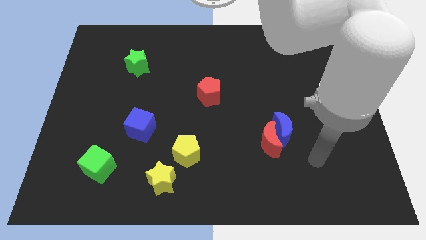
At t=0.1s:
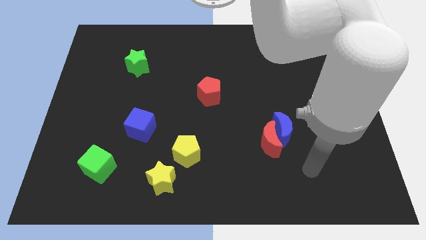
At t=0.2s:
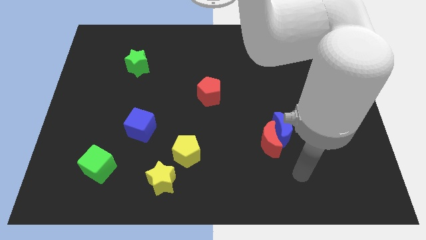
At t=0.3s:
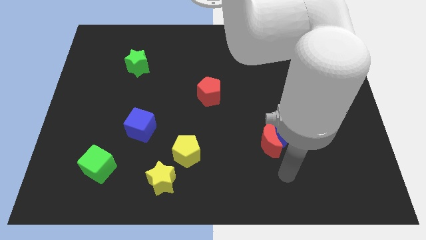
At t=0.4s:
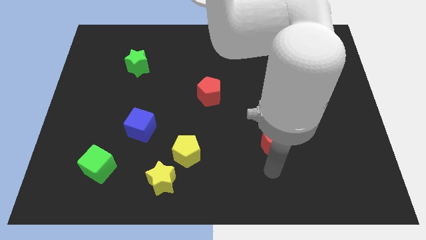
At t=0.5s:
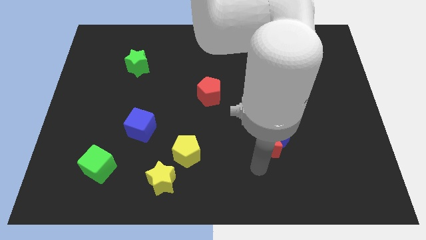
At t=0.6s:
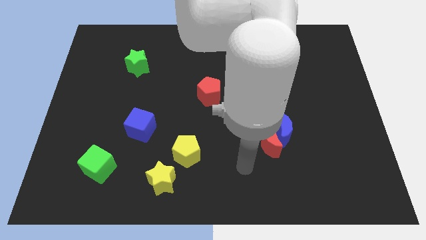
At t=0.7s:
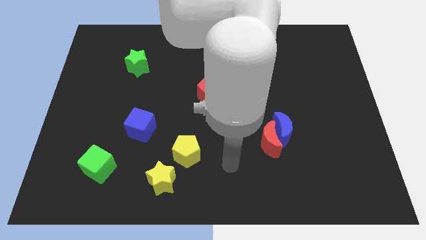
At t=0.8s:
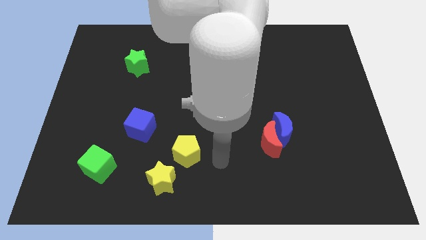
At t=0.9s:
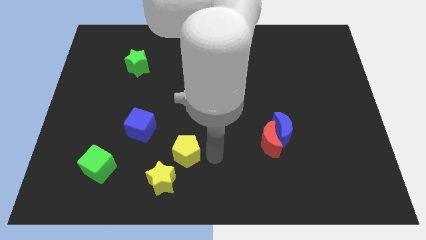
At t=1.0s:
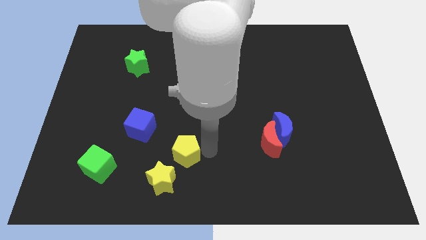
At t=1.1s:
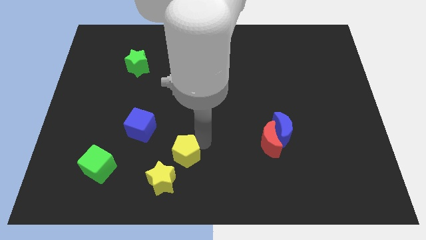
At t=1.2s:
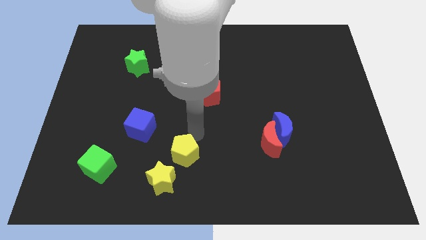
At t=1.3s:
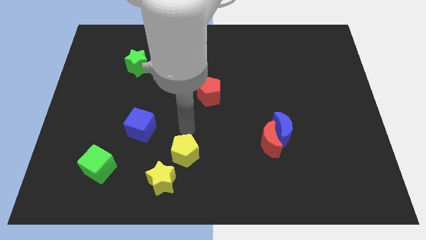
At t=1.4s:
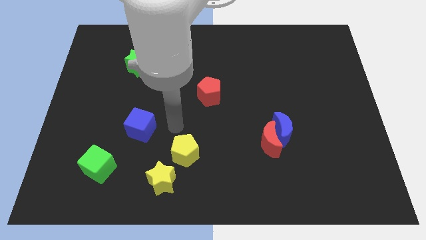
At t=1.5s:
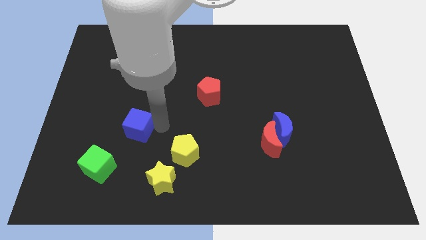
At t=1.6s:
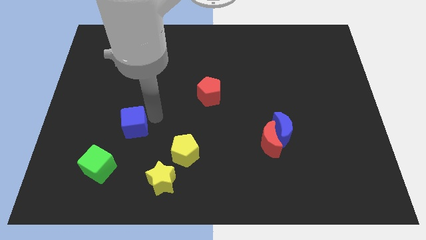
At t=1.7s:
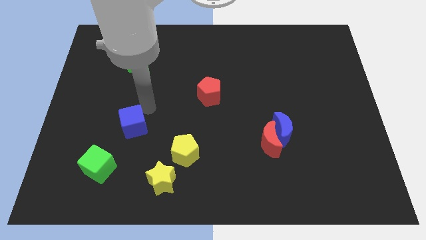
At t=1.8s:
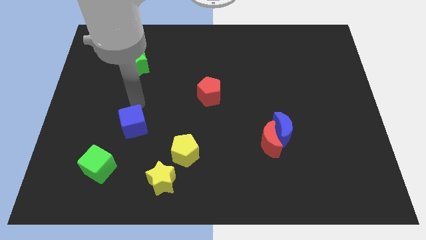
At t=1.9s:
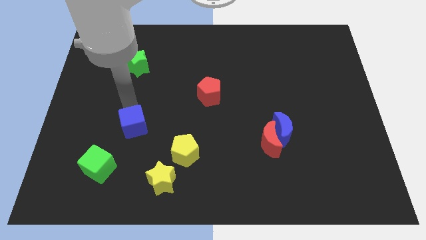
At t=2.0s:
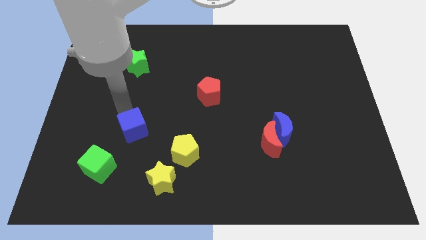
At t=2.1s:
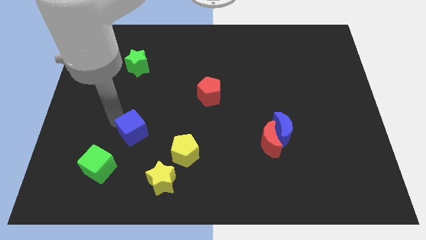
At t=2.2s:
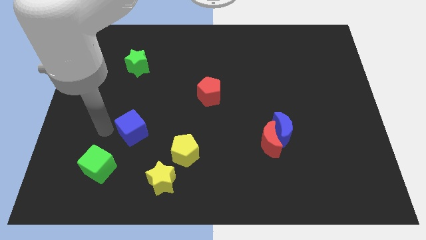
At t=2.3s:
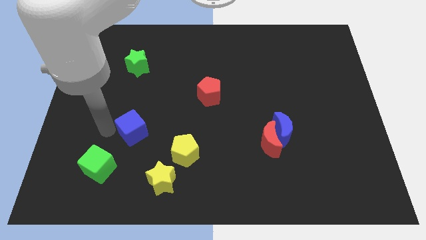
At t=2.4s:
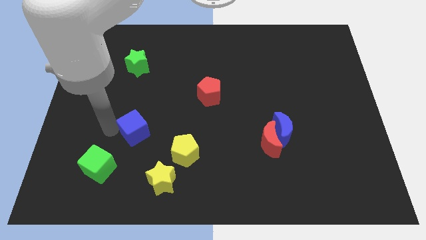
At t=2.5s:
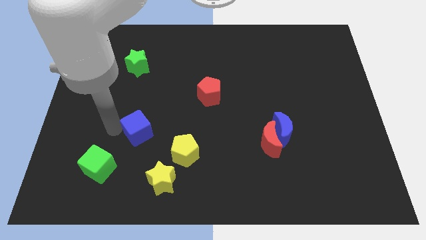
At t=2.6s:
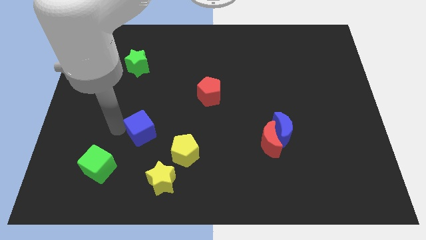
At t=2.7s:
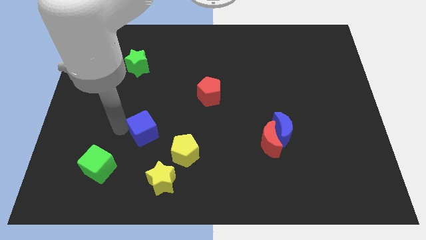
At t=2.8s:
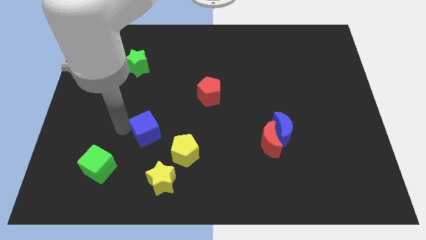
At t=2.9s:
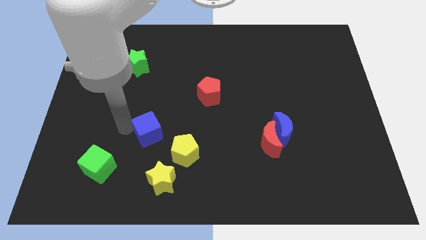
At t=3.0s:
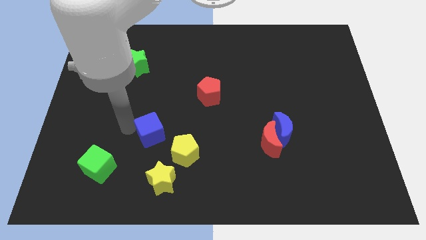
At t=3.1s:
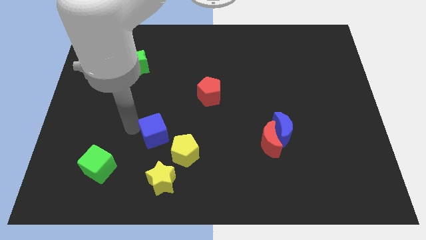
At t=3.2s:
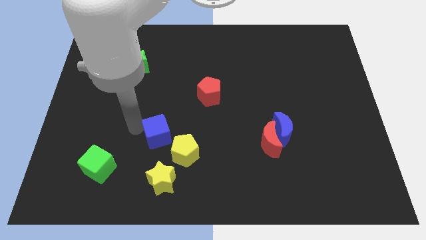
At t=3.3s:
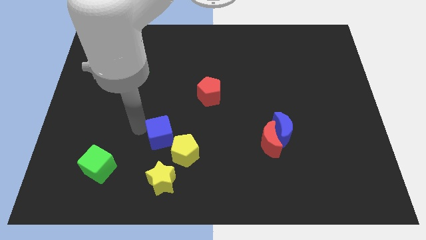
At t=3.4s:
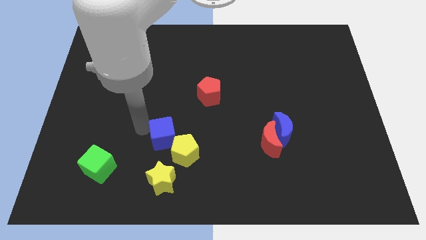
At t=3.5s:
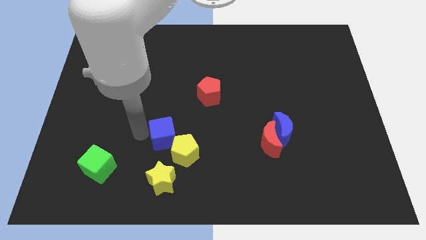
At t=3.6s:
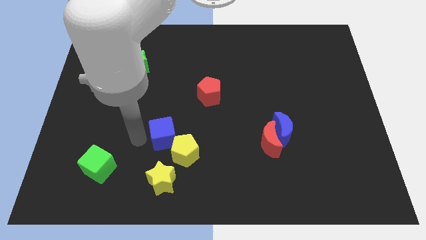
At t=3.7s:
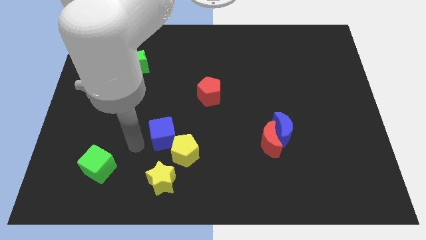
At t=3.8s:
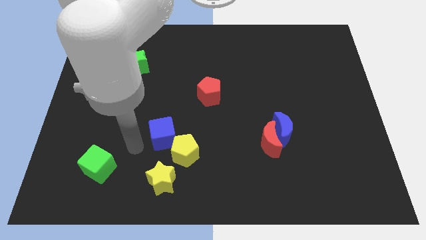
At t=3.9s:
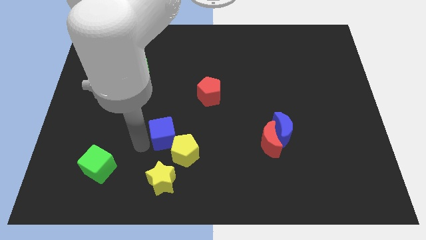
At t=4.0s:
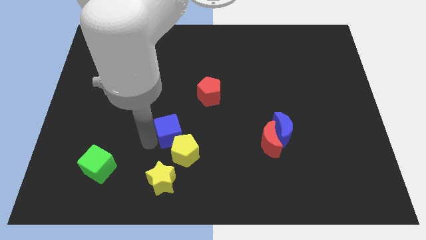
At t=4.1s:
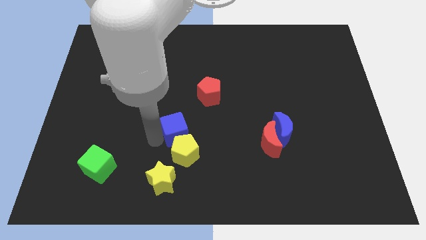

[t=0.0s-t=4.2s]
slide the blue cube slightly to the right

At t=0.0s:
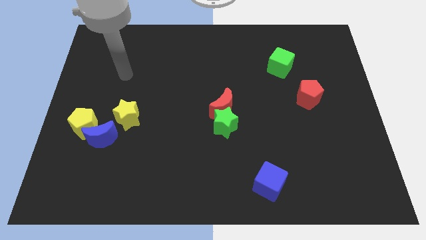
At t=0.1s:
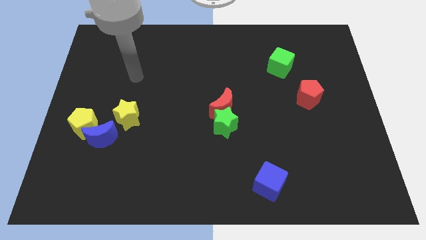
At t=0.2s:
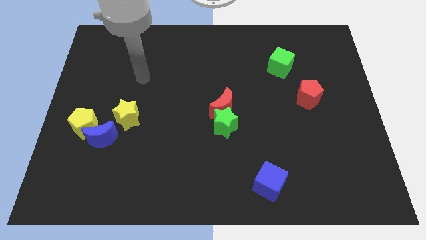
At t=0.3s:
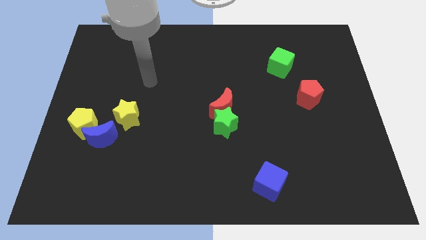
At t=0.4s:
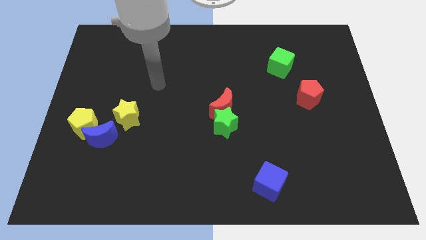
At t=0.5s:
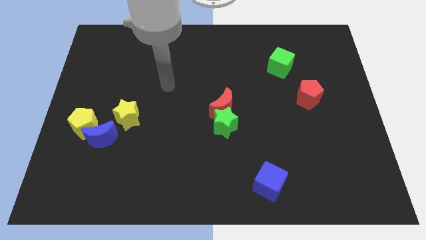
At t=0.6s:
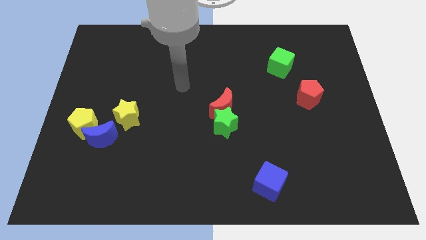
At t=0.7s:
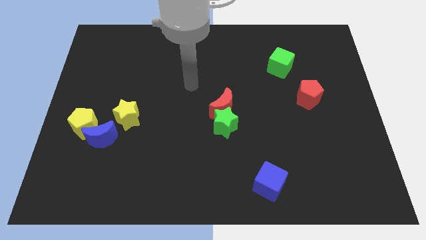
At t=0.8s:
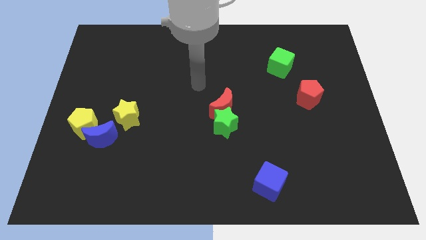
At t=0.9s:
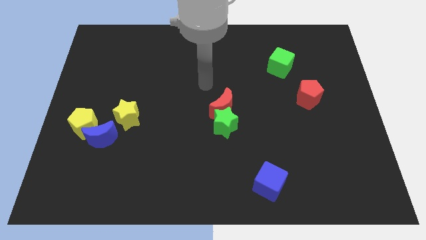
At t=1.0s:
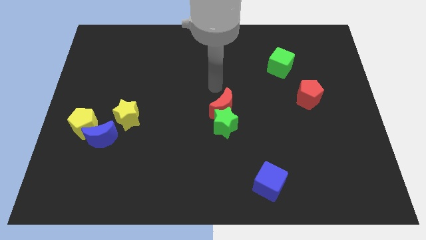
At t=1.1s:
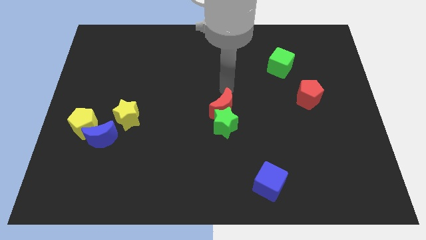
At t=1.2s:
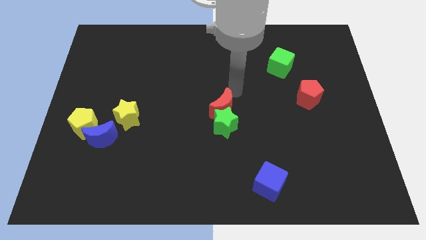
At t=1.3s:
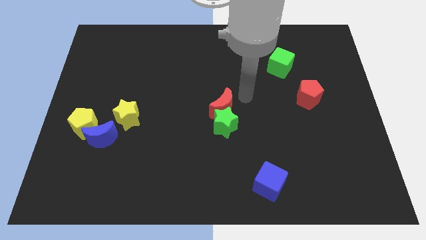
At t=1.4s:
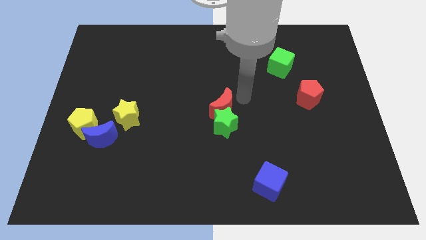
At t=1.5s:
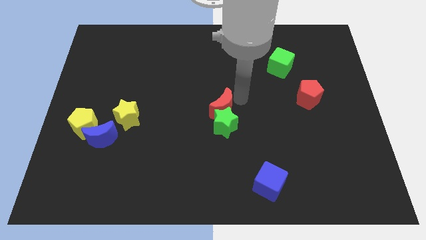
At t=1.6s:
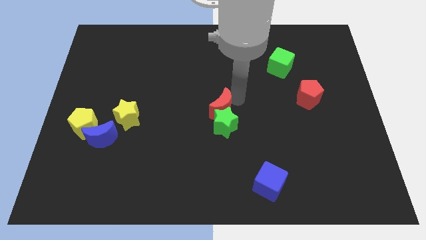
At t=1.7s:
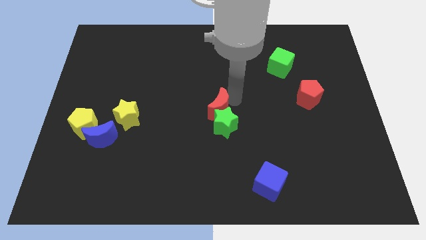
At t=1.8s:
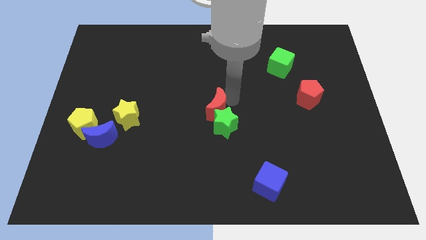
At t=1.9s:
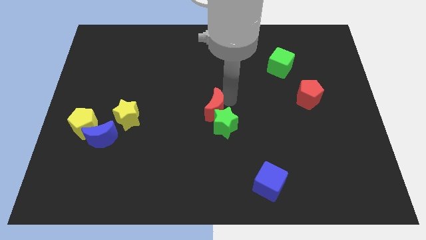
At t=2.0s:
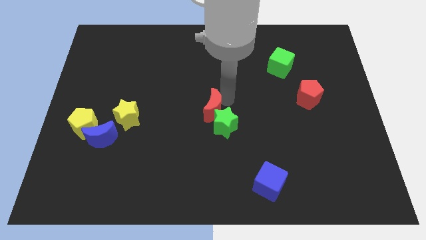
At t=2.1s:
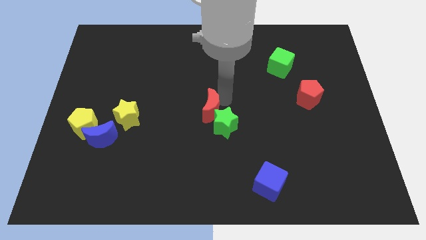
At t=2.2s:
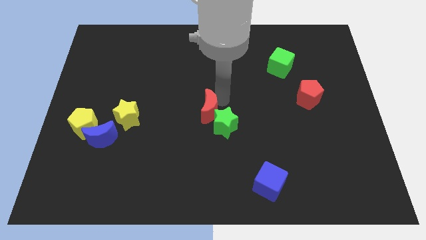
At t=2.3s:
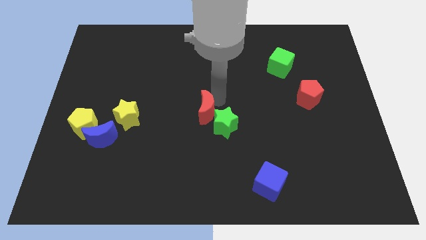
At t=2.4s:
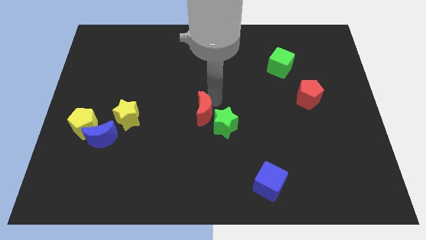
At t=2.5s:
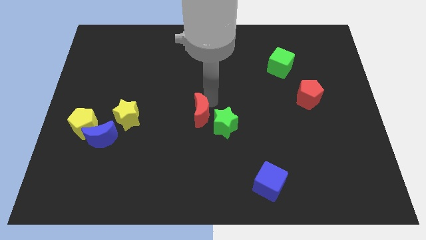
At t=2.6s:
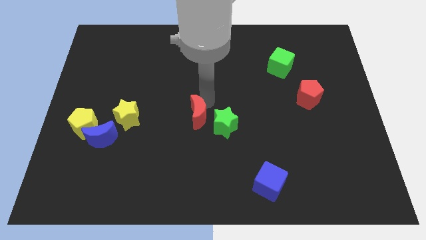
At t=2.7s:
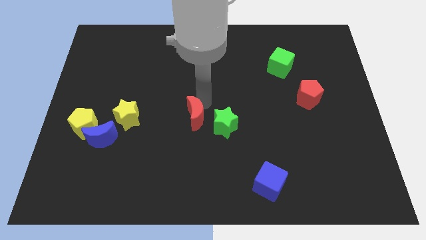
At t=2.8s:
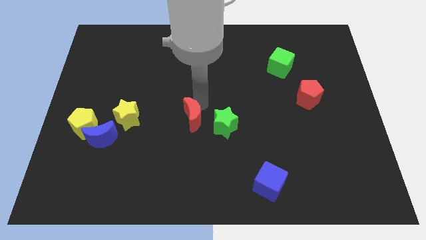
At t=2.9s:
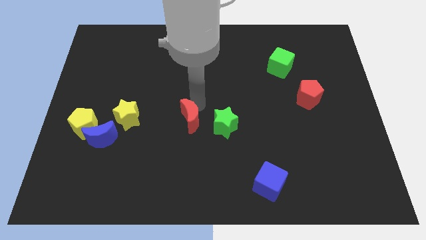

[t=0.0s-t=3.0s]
slightly move the red moon down and to the left

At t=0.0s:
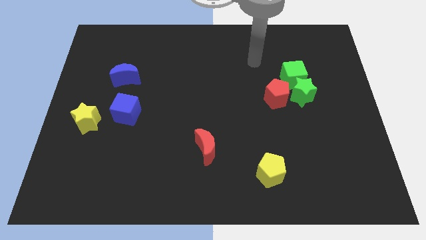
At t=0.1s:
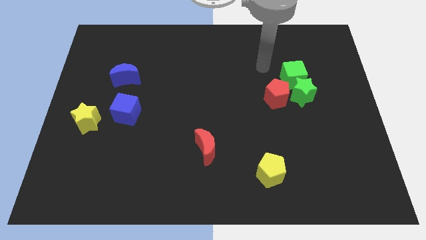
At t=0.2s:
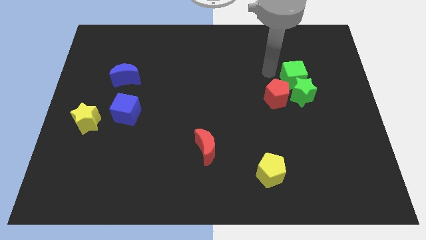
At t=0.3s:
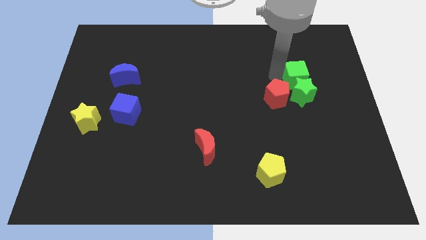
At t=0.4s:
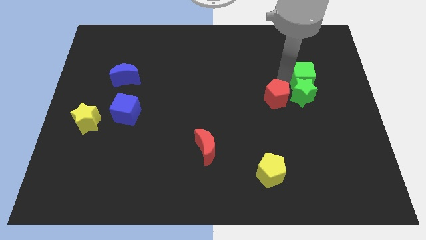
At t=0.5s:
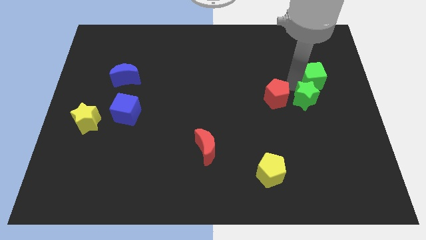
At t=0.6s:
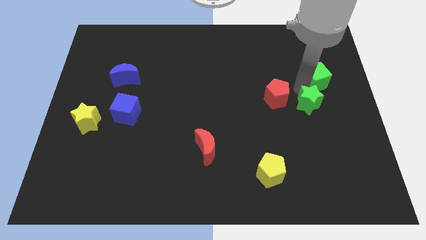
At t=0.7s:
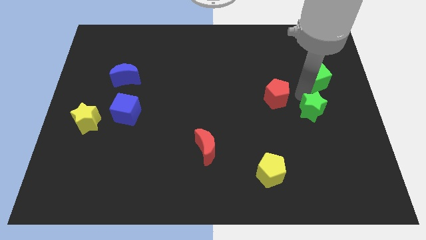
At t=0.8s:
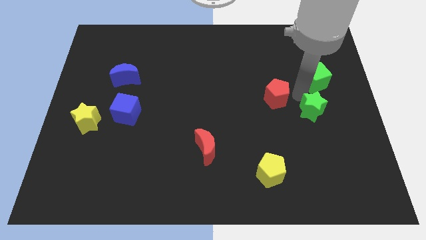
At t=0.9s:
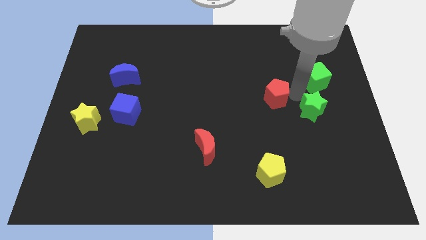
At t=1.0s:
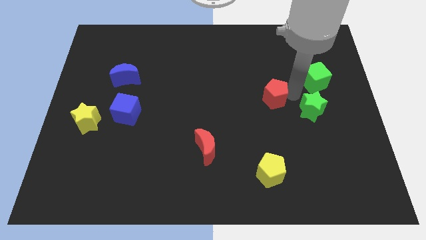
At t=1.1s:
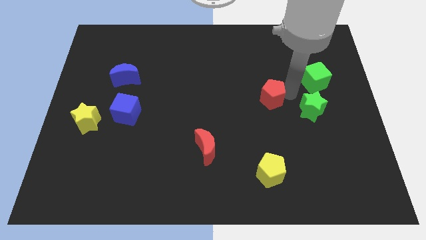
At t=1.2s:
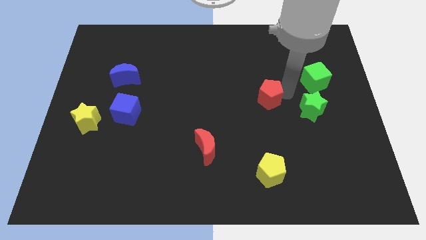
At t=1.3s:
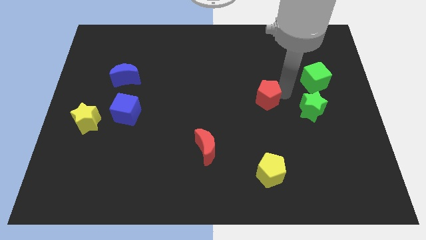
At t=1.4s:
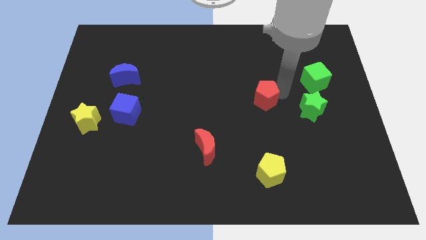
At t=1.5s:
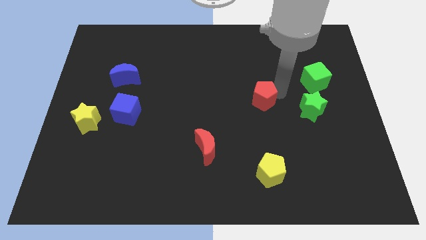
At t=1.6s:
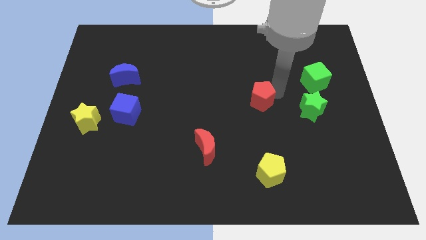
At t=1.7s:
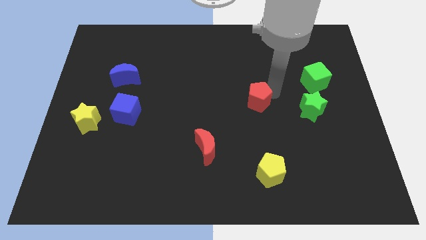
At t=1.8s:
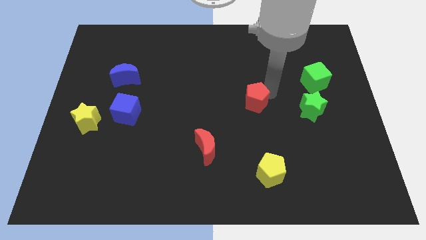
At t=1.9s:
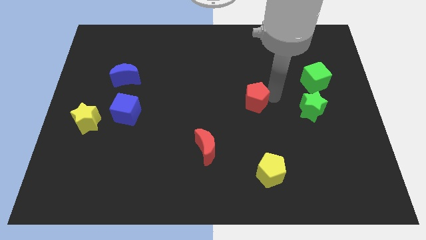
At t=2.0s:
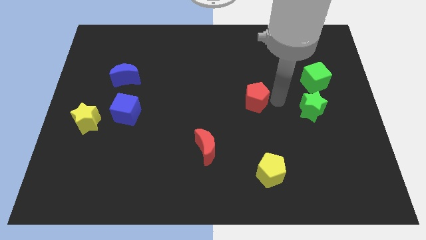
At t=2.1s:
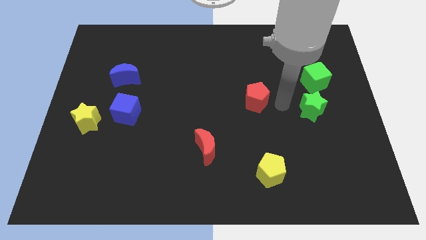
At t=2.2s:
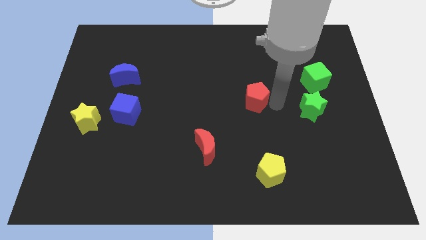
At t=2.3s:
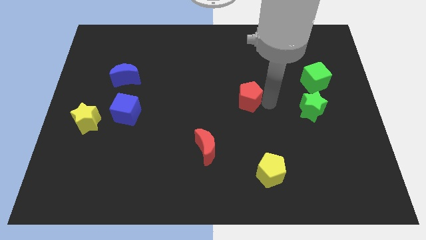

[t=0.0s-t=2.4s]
move the red pentagon a little bit to the left
